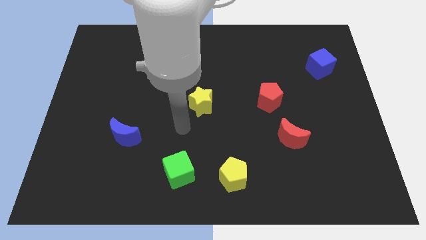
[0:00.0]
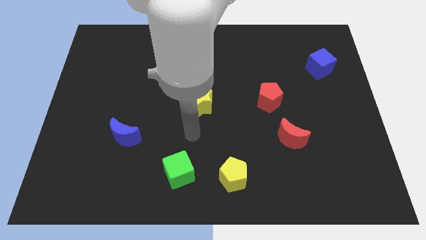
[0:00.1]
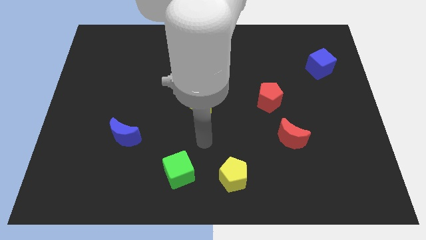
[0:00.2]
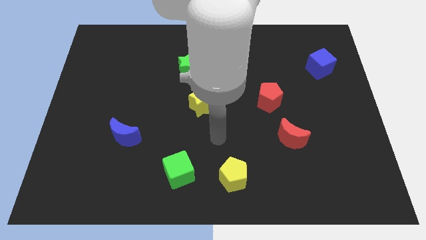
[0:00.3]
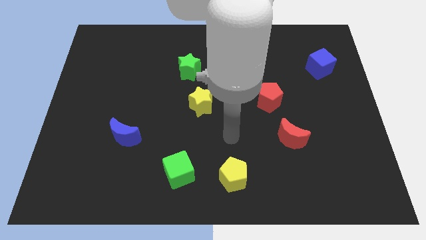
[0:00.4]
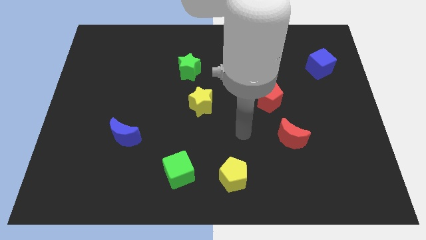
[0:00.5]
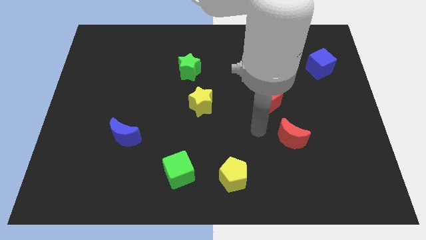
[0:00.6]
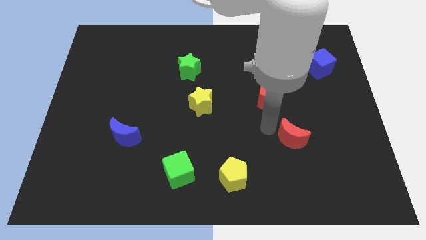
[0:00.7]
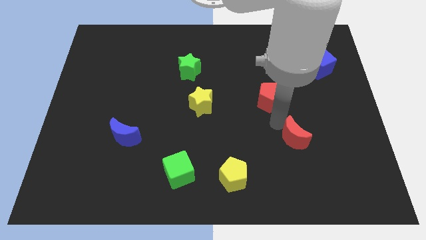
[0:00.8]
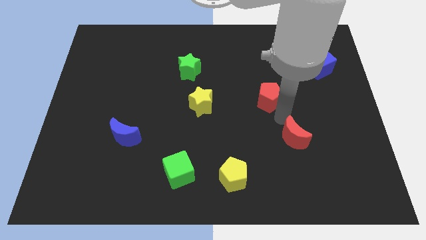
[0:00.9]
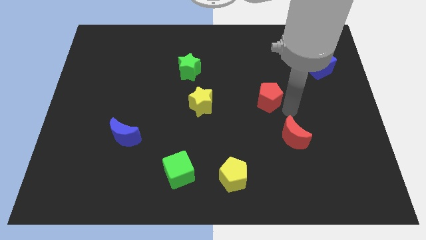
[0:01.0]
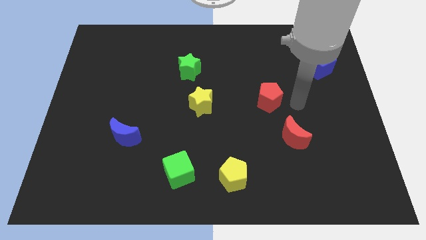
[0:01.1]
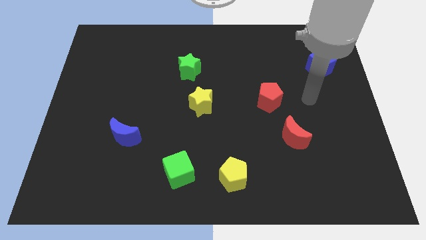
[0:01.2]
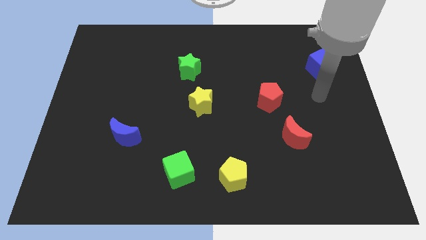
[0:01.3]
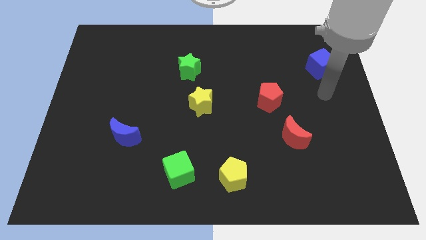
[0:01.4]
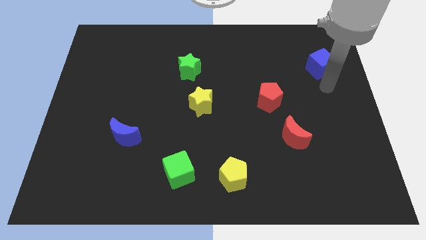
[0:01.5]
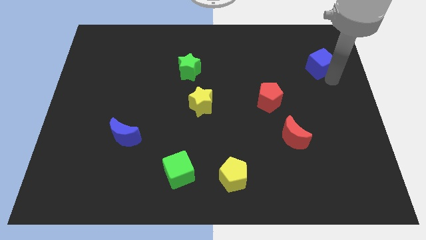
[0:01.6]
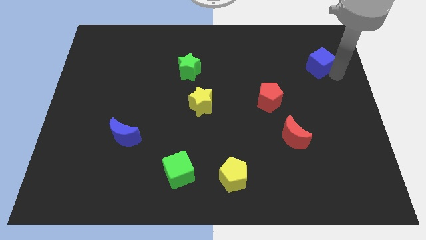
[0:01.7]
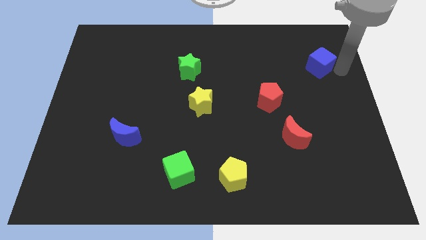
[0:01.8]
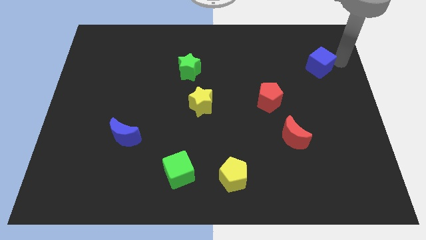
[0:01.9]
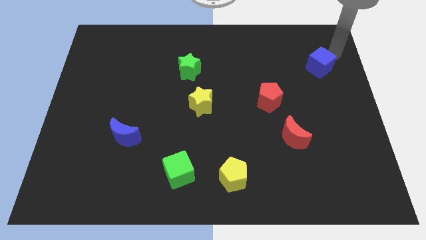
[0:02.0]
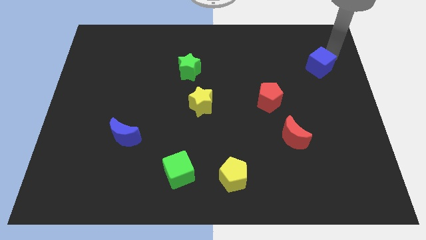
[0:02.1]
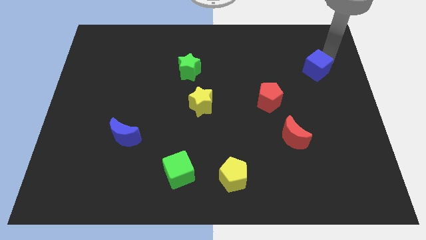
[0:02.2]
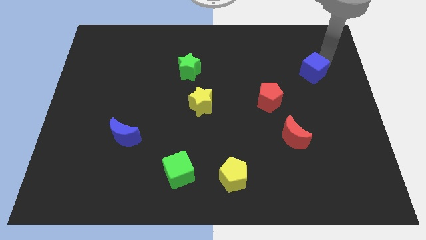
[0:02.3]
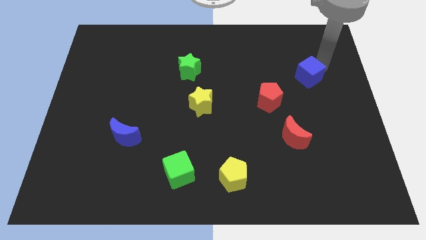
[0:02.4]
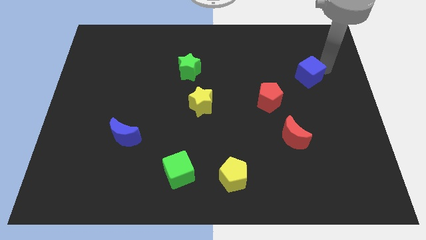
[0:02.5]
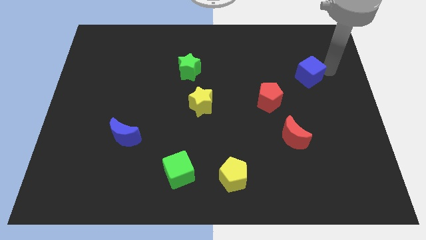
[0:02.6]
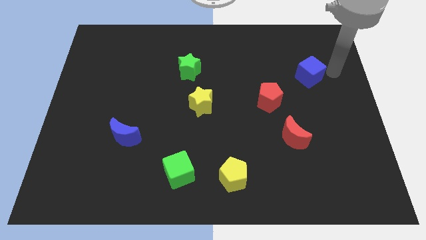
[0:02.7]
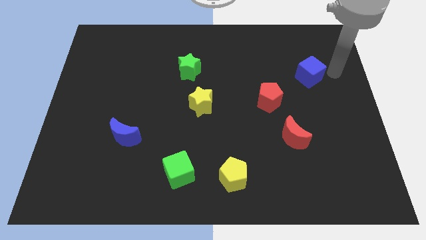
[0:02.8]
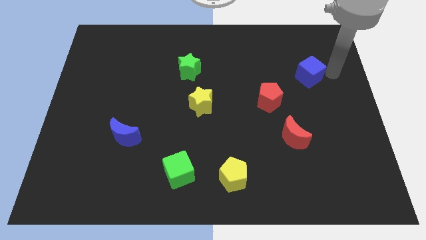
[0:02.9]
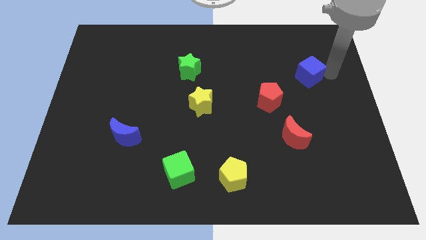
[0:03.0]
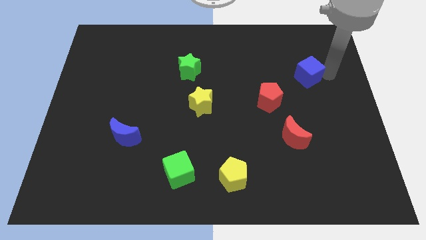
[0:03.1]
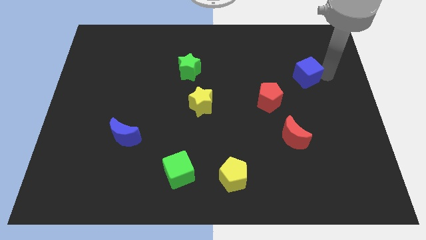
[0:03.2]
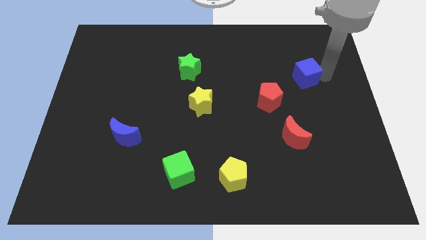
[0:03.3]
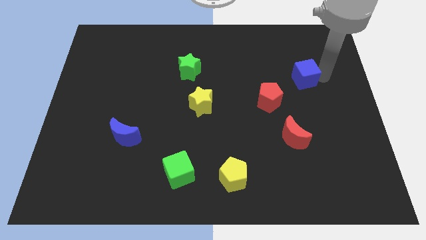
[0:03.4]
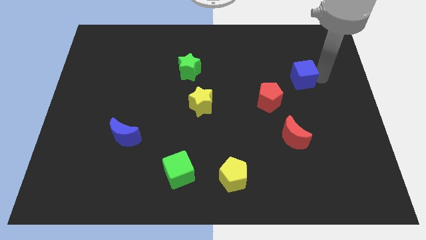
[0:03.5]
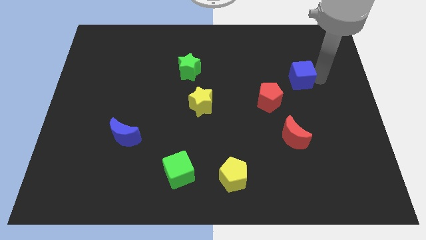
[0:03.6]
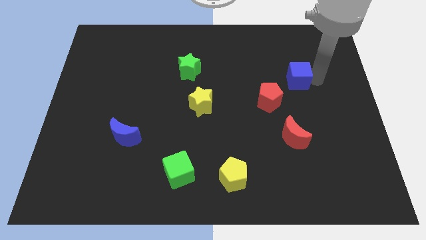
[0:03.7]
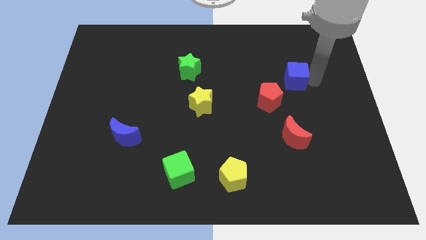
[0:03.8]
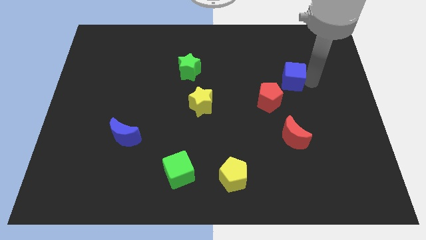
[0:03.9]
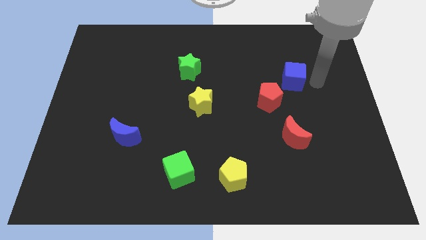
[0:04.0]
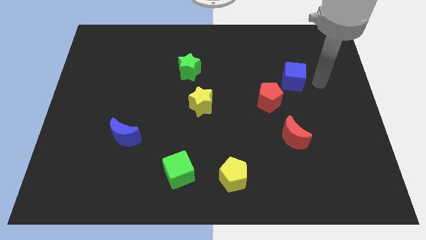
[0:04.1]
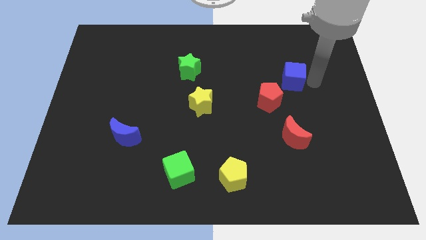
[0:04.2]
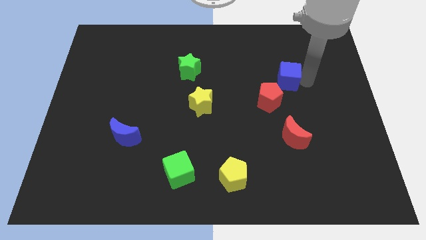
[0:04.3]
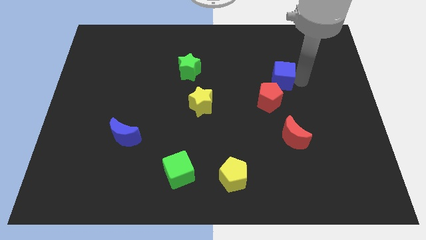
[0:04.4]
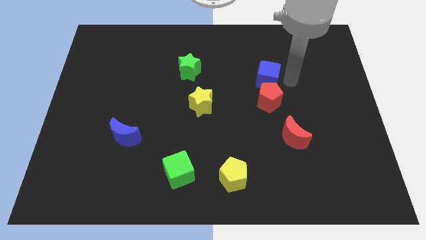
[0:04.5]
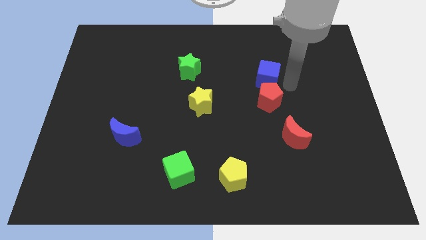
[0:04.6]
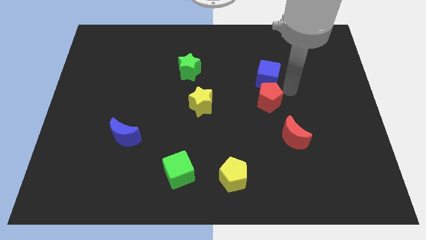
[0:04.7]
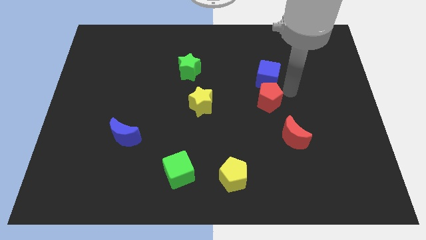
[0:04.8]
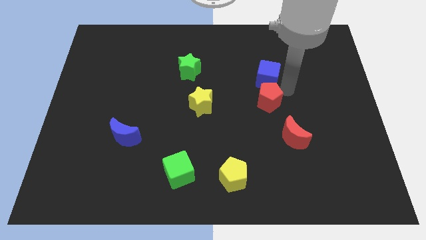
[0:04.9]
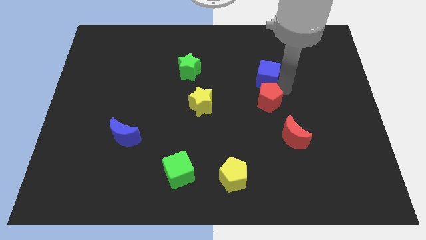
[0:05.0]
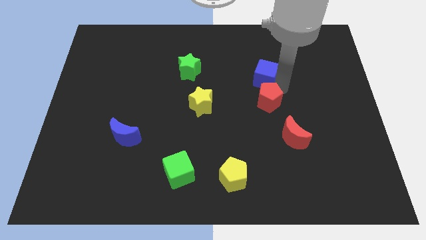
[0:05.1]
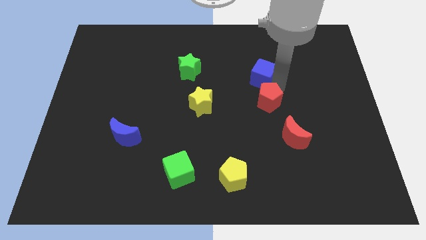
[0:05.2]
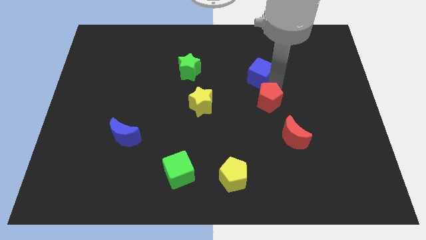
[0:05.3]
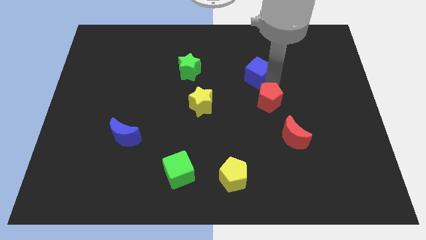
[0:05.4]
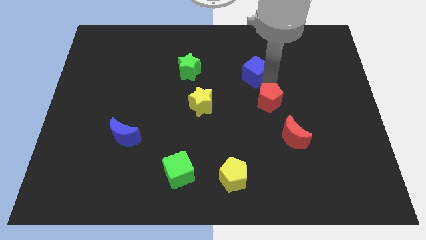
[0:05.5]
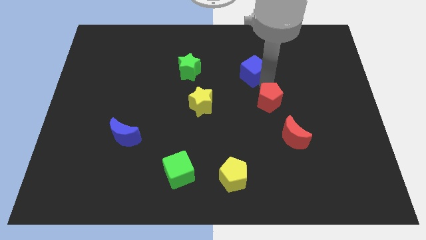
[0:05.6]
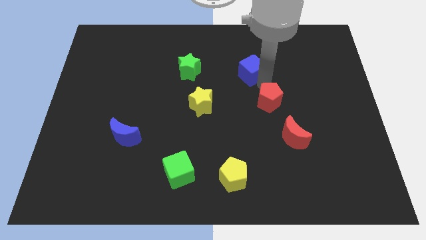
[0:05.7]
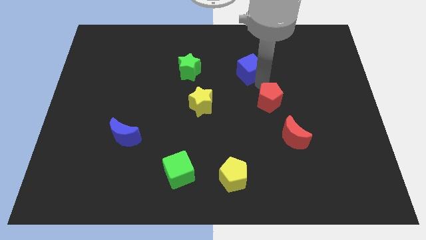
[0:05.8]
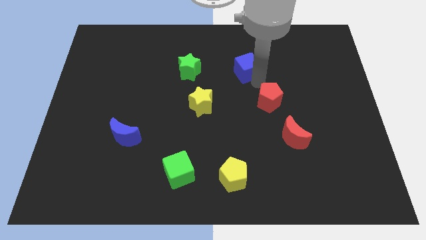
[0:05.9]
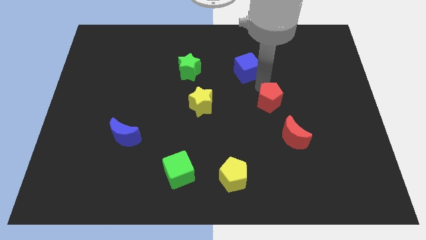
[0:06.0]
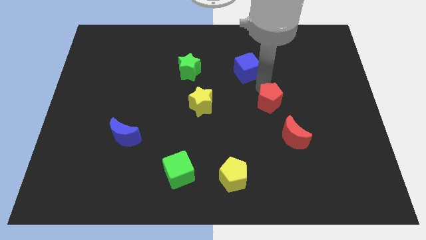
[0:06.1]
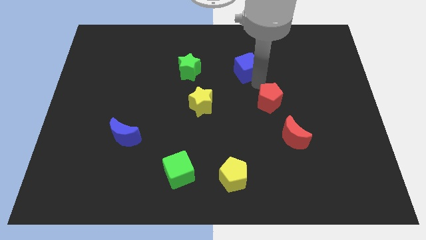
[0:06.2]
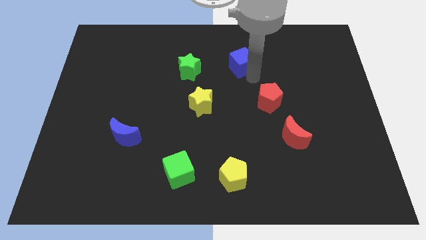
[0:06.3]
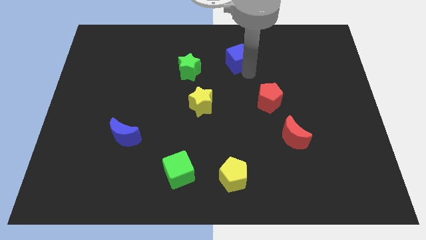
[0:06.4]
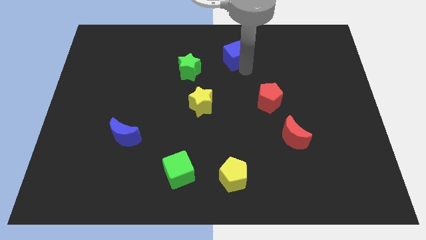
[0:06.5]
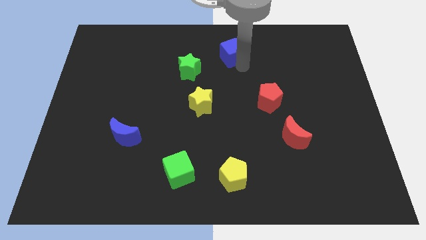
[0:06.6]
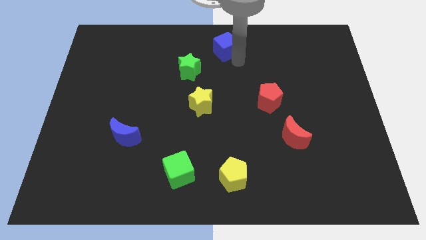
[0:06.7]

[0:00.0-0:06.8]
put the blue cube to the towards your base
